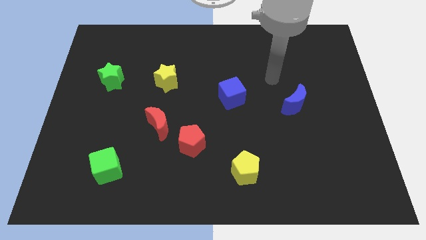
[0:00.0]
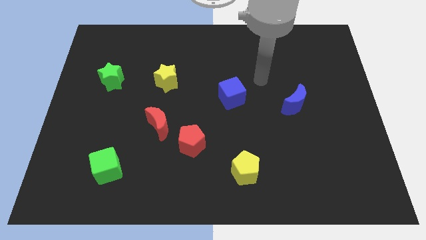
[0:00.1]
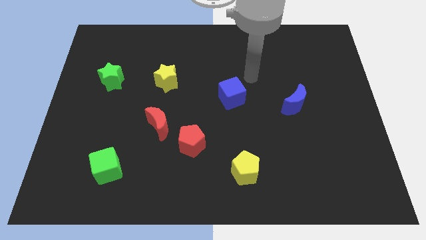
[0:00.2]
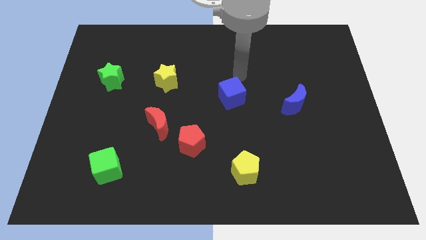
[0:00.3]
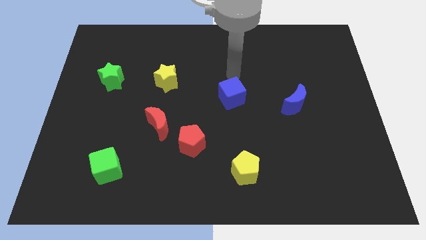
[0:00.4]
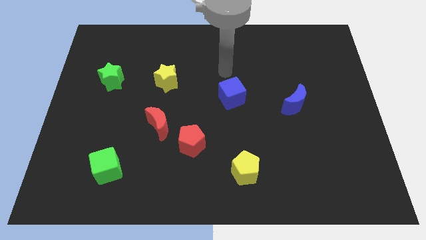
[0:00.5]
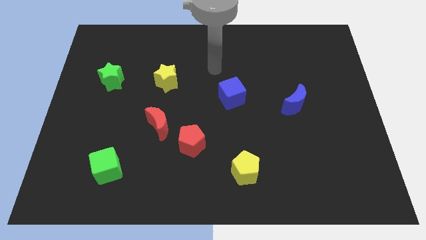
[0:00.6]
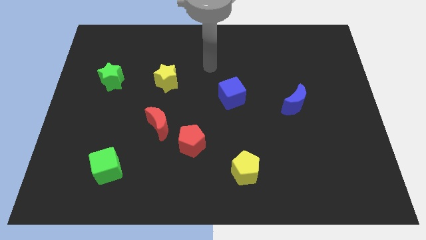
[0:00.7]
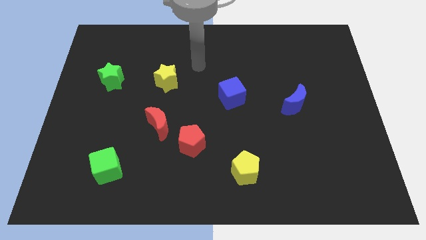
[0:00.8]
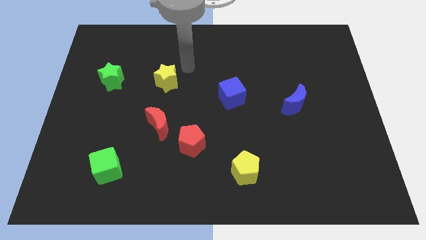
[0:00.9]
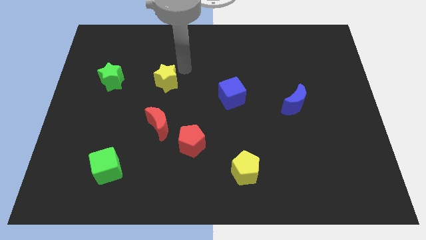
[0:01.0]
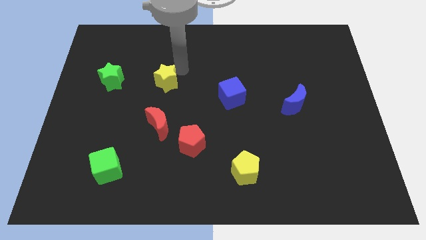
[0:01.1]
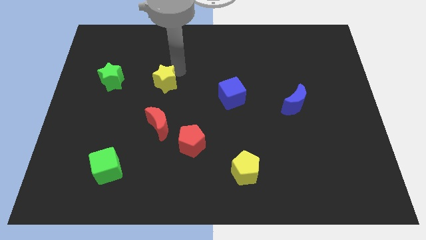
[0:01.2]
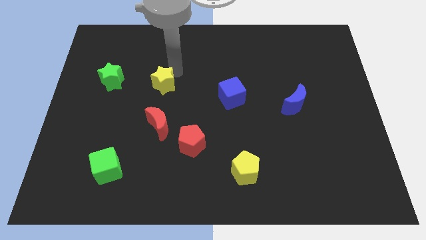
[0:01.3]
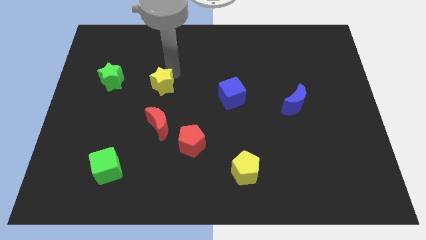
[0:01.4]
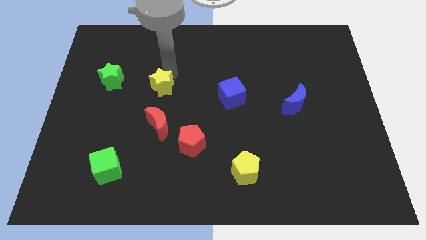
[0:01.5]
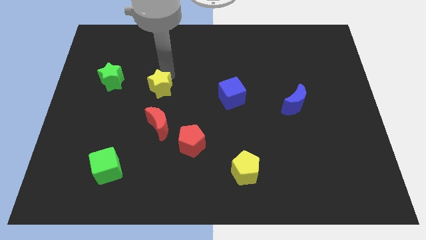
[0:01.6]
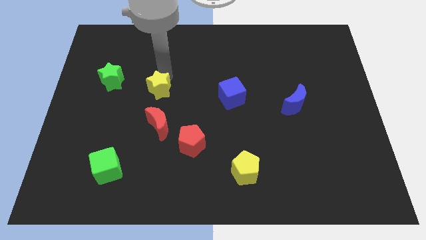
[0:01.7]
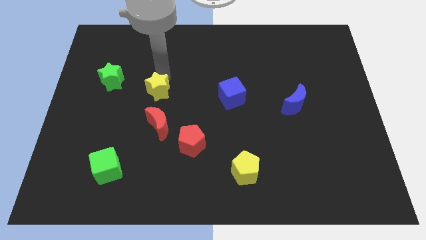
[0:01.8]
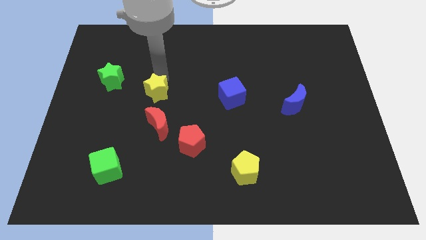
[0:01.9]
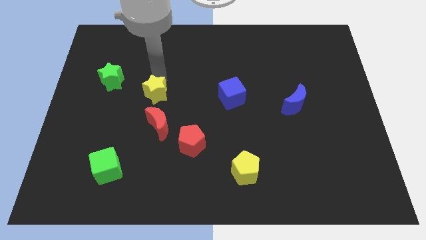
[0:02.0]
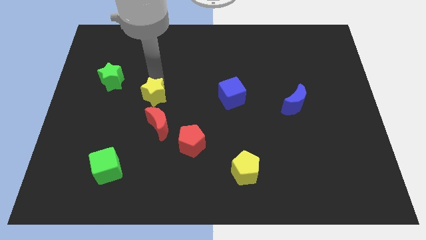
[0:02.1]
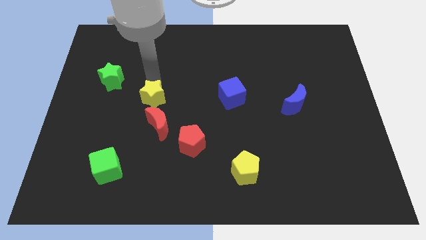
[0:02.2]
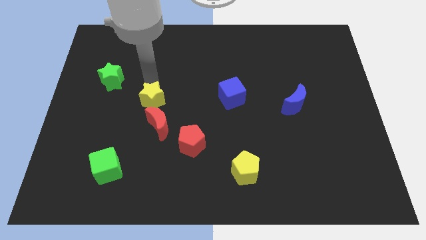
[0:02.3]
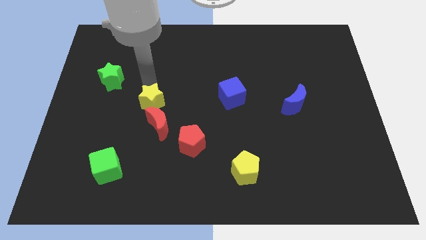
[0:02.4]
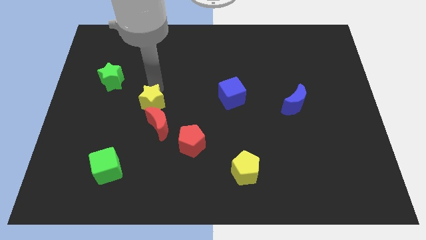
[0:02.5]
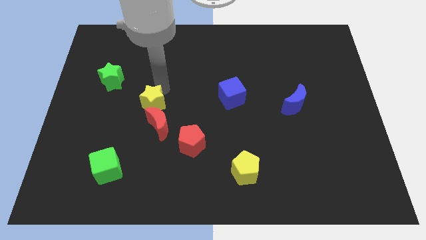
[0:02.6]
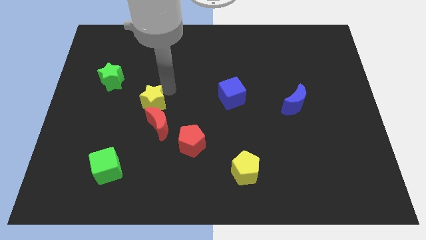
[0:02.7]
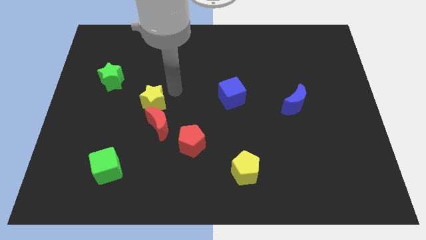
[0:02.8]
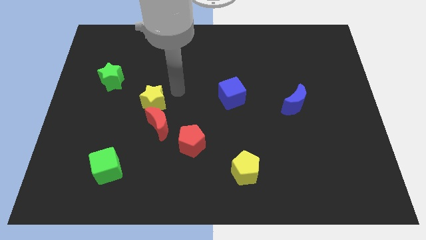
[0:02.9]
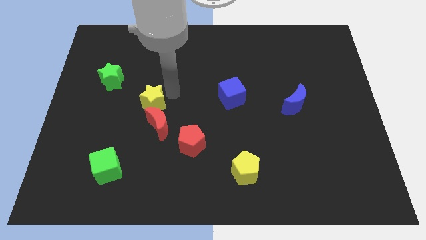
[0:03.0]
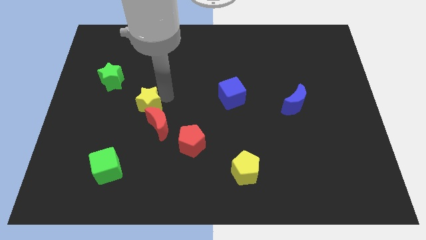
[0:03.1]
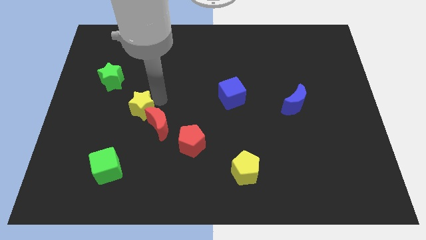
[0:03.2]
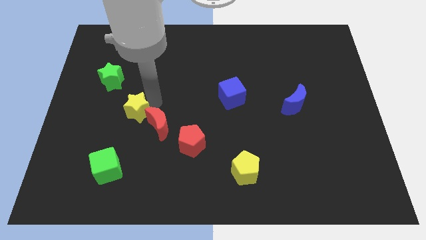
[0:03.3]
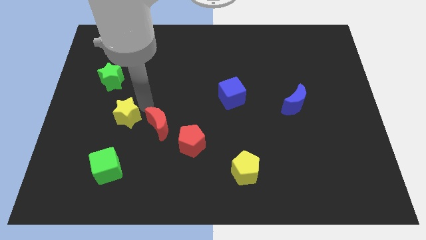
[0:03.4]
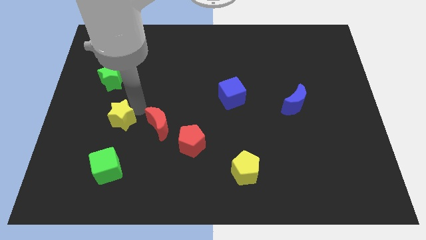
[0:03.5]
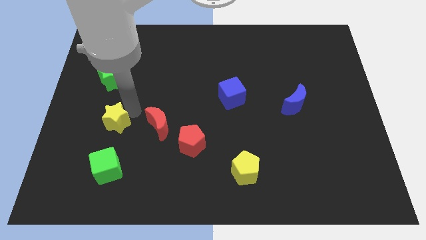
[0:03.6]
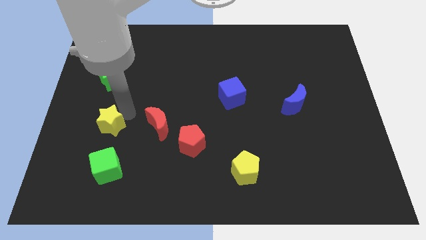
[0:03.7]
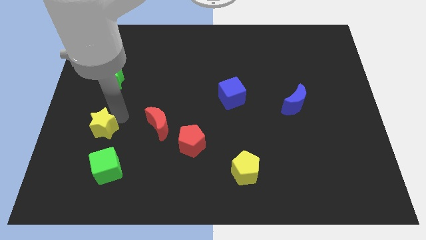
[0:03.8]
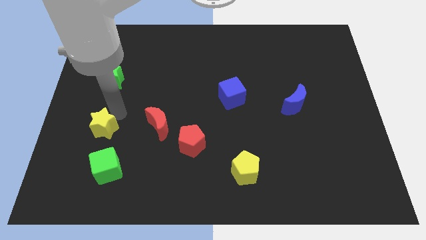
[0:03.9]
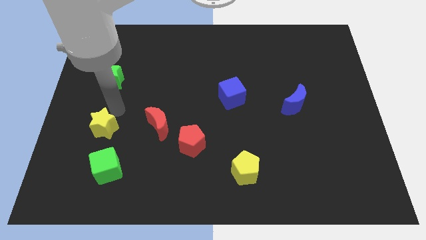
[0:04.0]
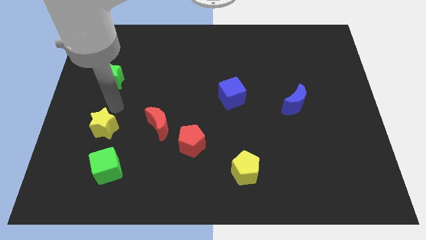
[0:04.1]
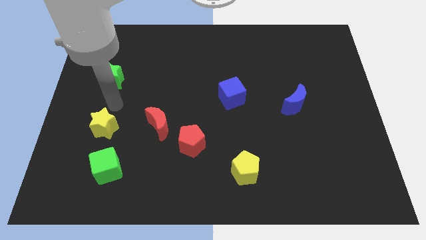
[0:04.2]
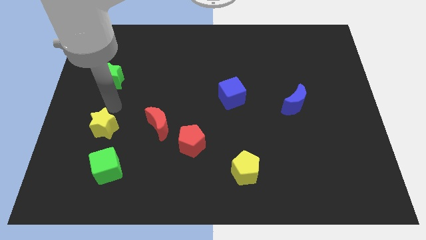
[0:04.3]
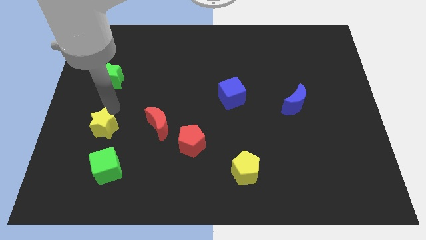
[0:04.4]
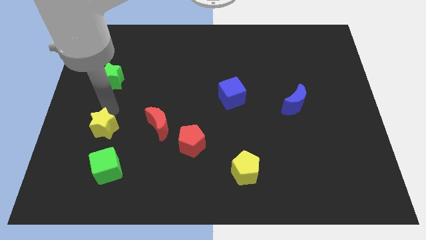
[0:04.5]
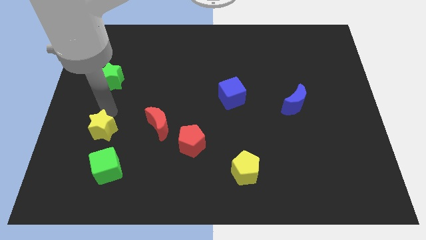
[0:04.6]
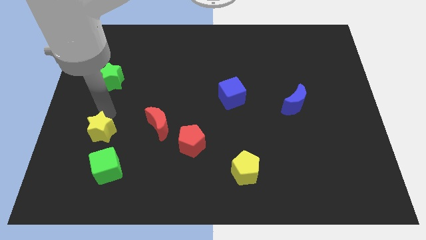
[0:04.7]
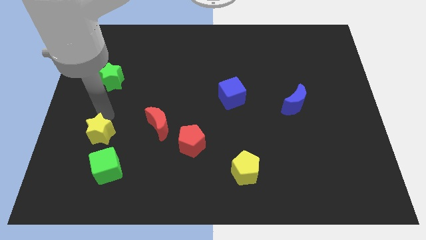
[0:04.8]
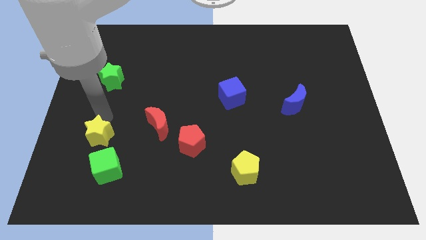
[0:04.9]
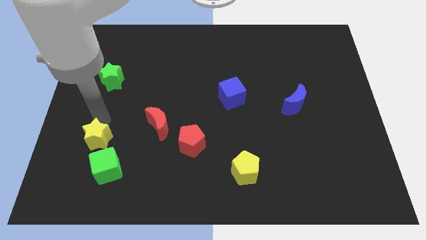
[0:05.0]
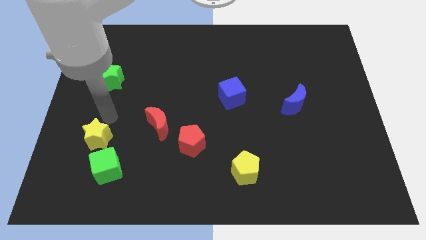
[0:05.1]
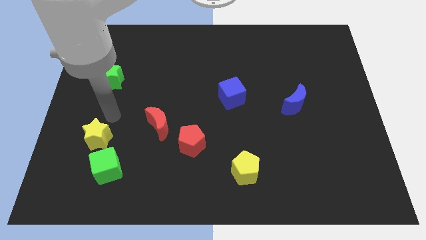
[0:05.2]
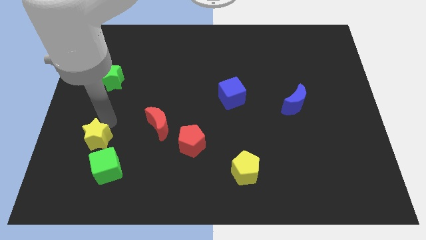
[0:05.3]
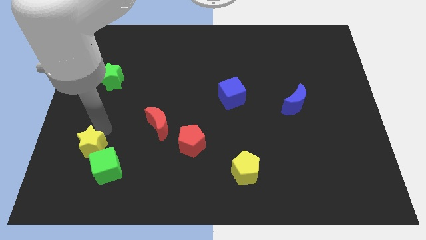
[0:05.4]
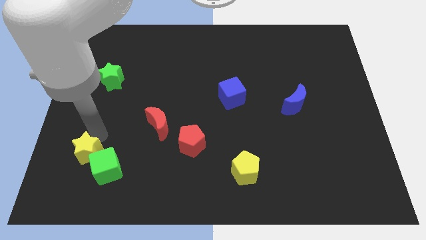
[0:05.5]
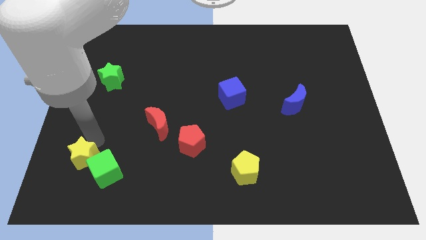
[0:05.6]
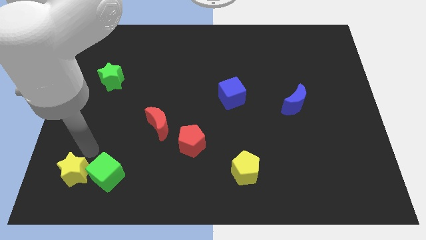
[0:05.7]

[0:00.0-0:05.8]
put the yellow star to the lower left corner

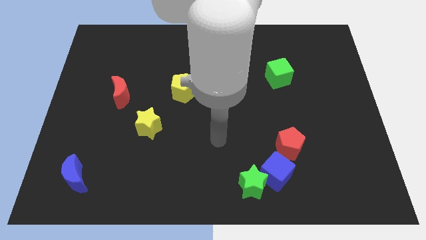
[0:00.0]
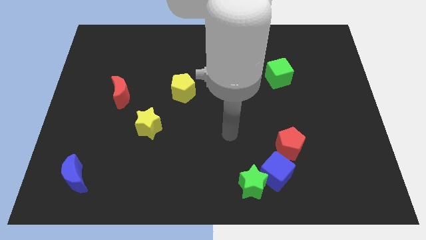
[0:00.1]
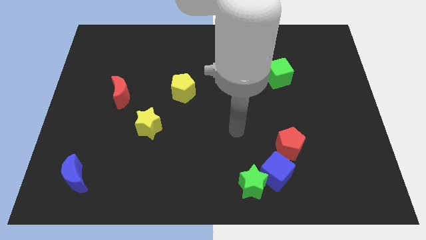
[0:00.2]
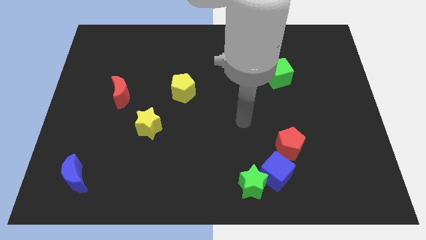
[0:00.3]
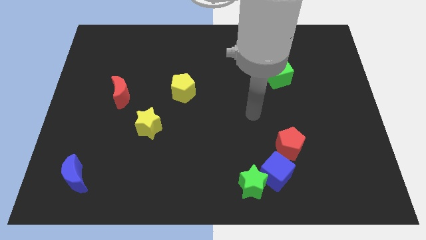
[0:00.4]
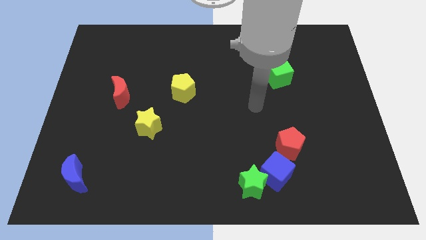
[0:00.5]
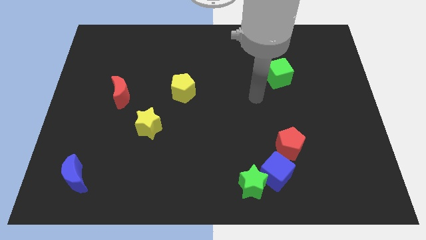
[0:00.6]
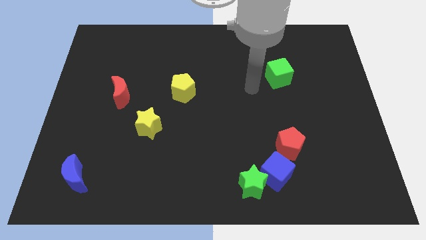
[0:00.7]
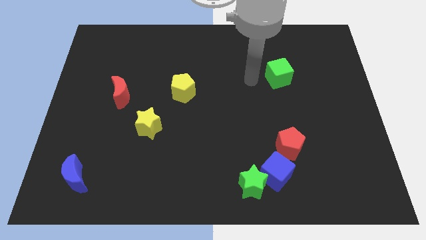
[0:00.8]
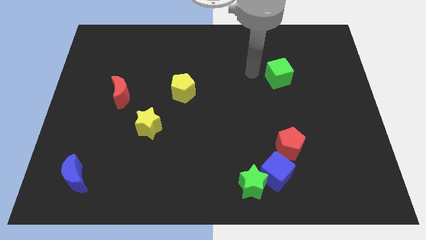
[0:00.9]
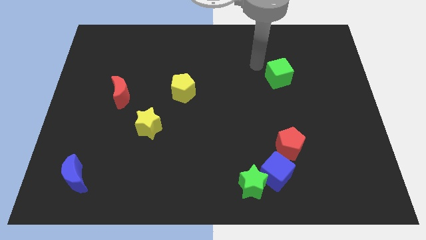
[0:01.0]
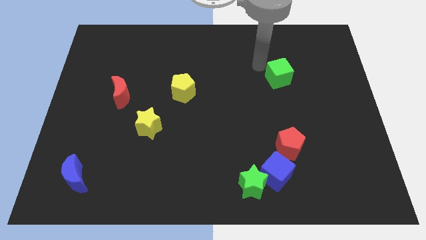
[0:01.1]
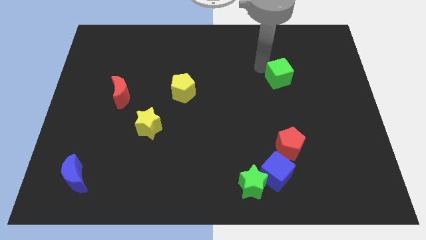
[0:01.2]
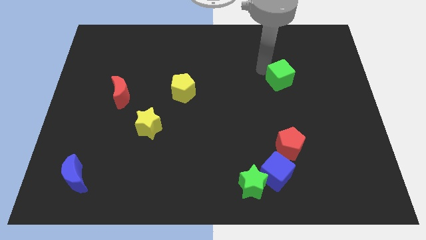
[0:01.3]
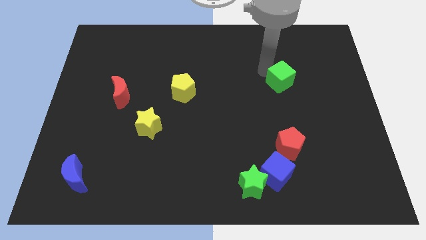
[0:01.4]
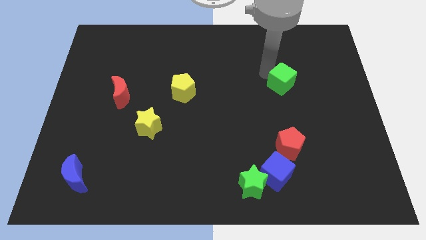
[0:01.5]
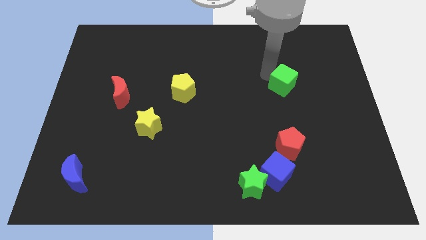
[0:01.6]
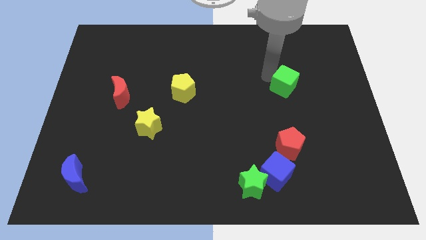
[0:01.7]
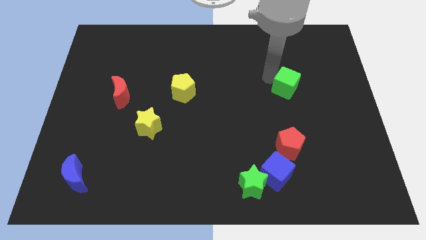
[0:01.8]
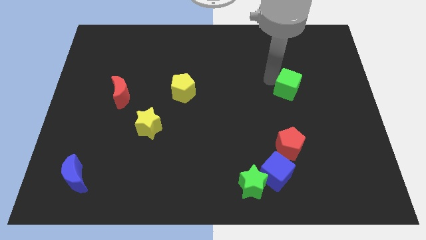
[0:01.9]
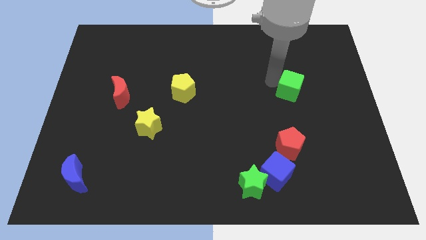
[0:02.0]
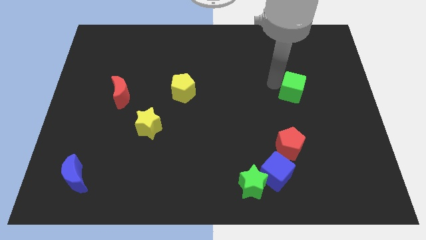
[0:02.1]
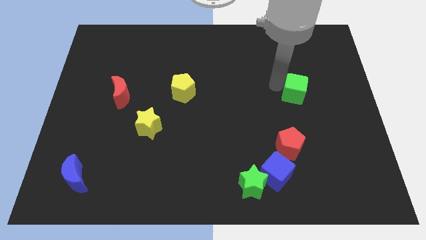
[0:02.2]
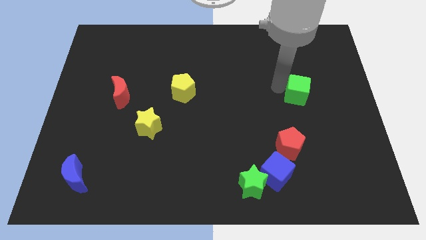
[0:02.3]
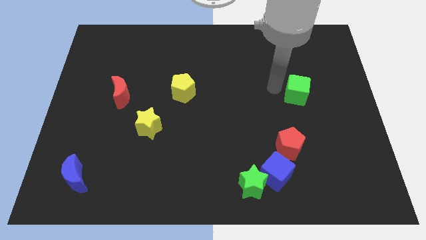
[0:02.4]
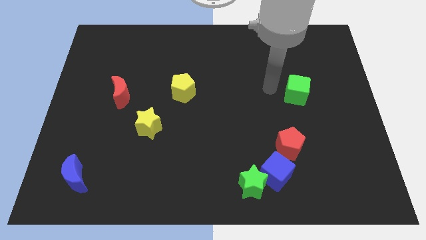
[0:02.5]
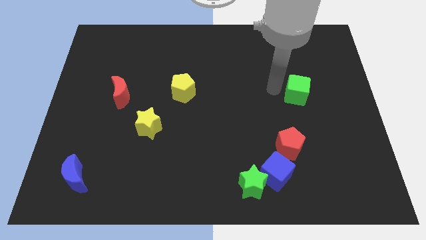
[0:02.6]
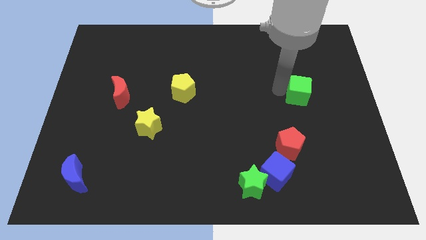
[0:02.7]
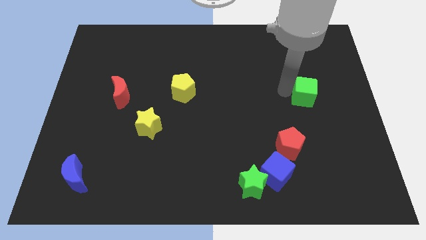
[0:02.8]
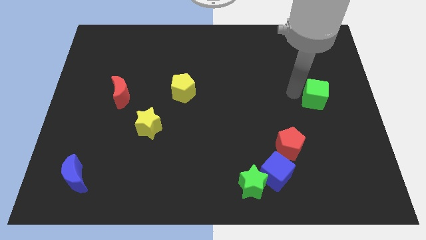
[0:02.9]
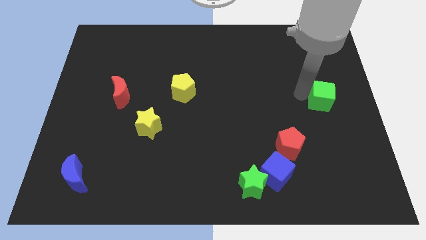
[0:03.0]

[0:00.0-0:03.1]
slide the green cube to the right side of the board
